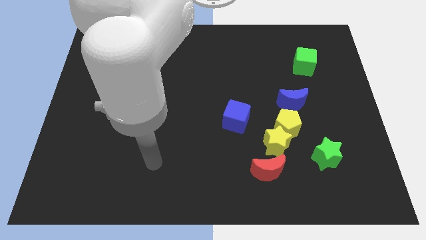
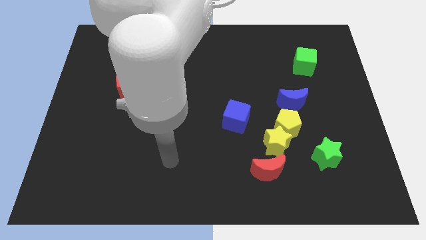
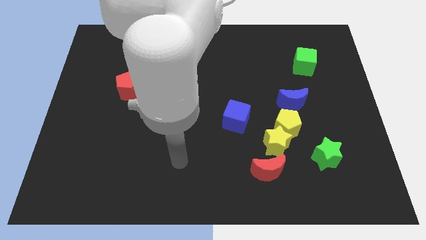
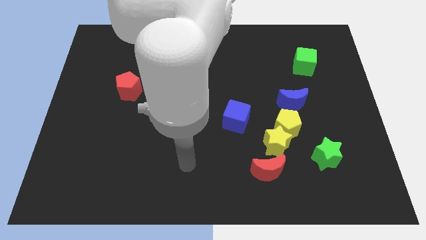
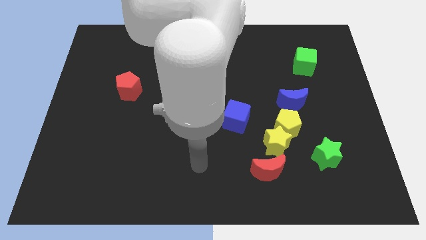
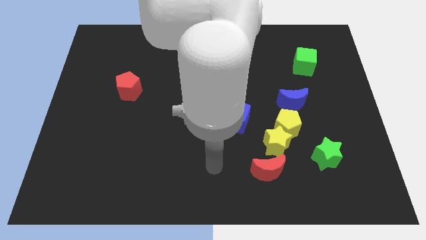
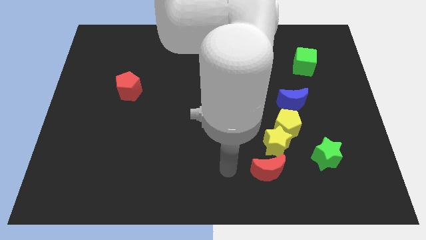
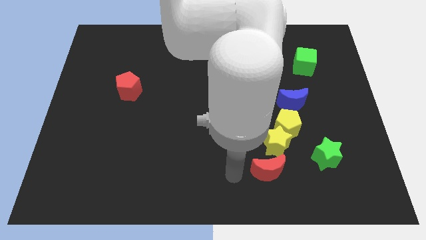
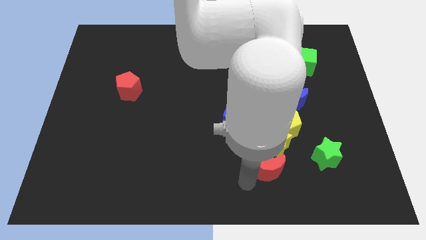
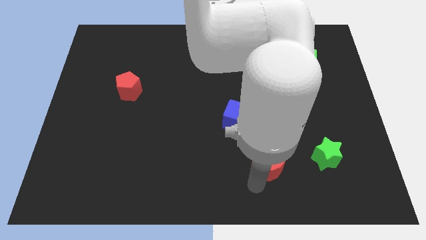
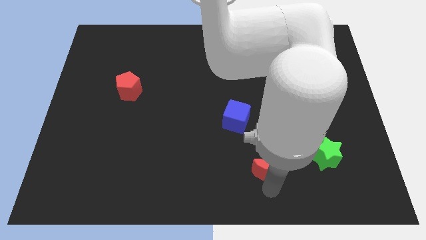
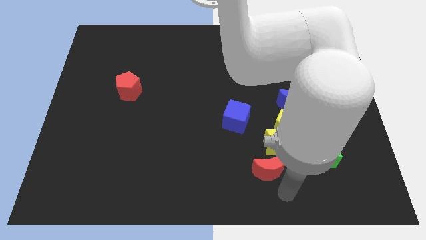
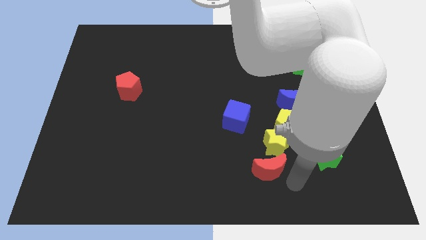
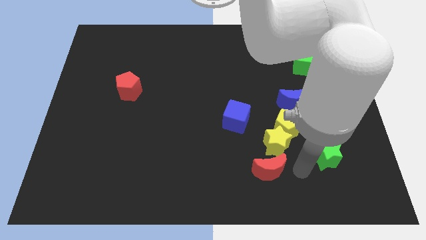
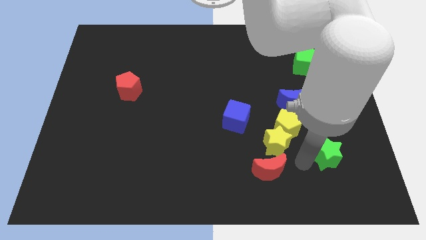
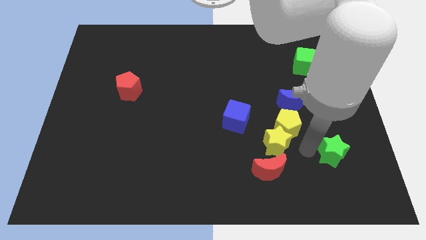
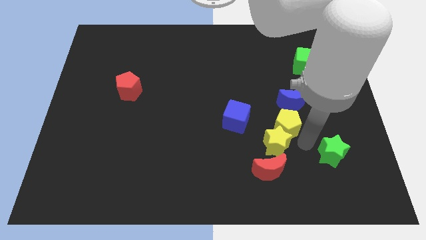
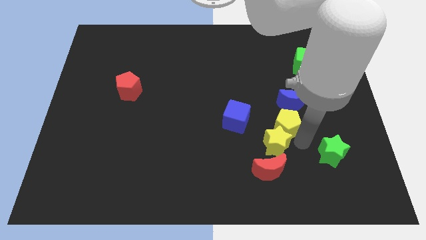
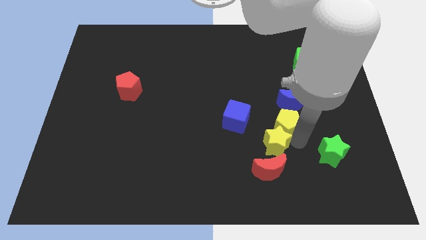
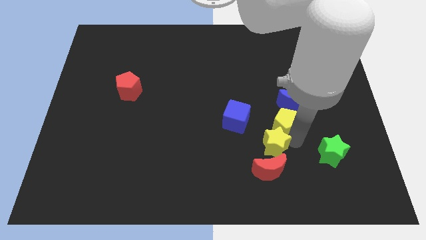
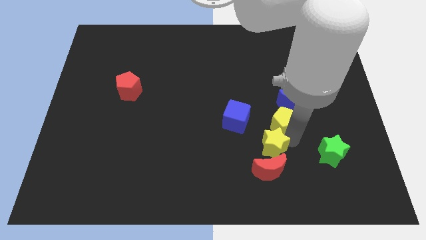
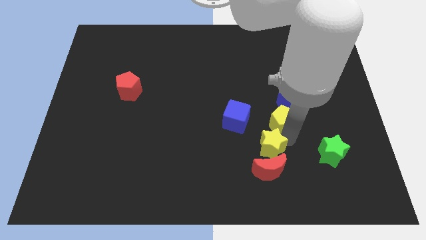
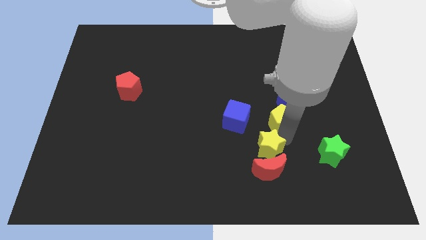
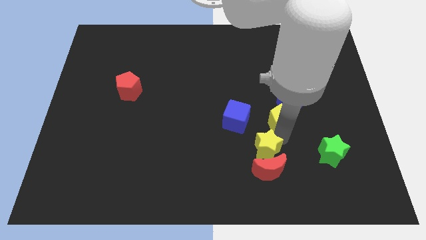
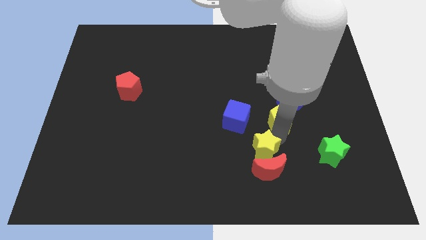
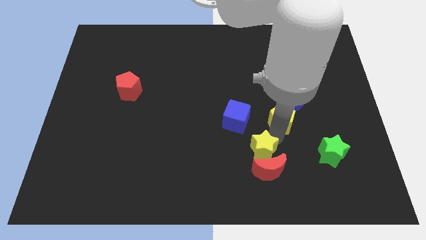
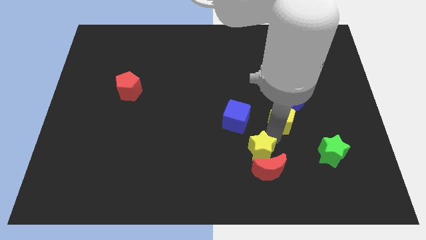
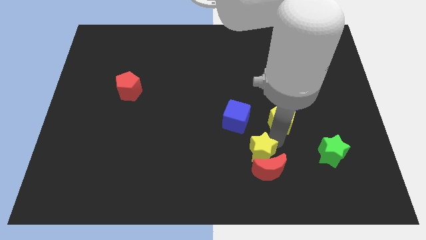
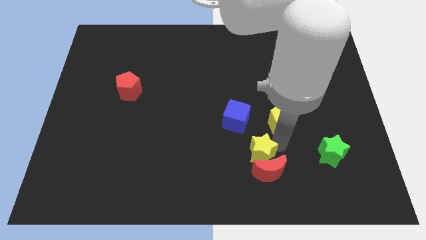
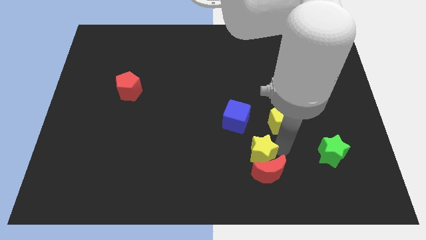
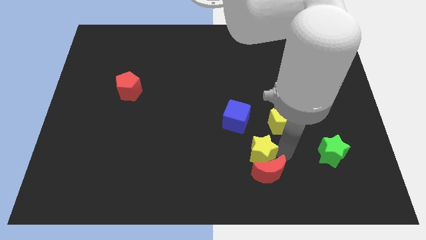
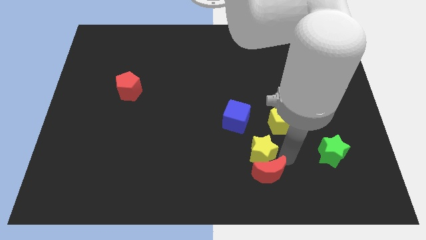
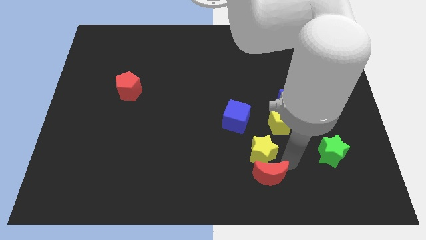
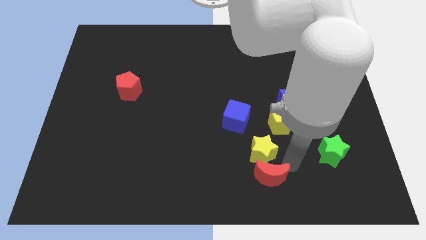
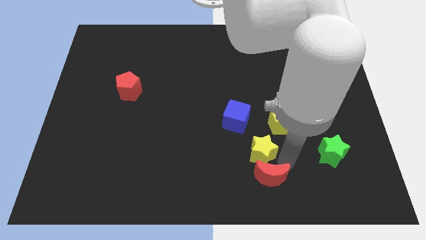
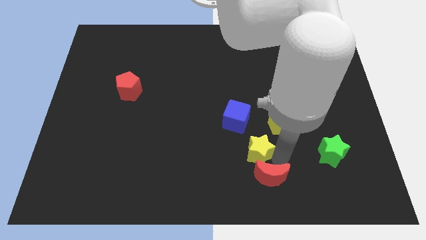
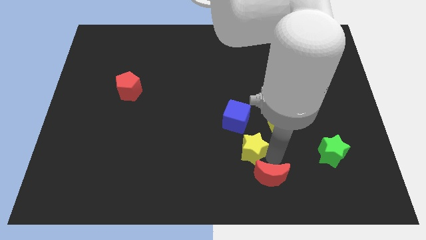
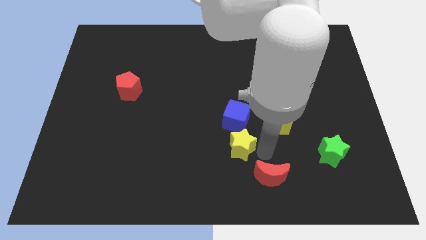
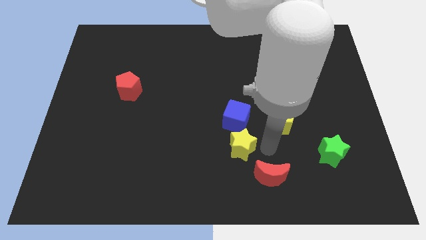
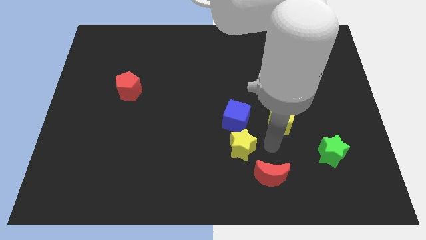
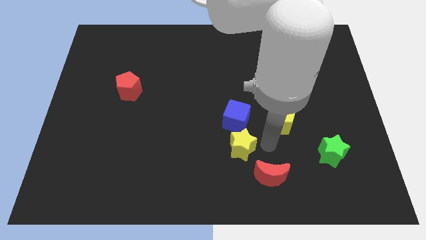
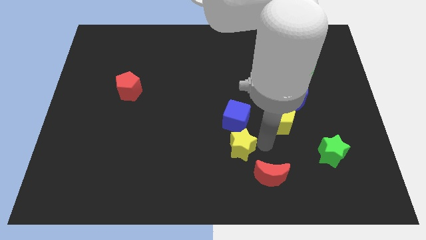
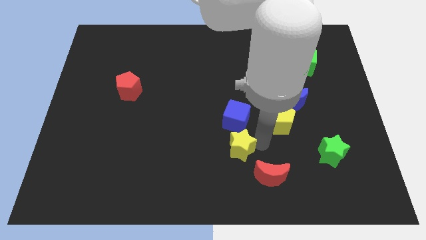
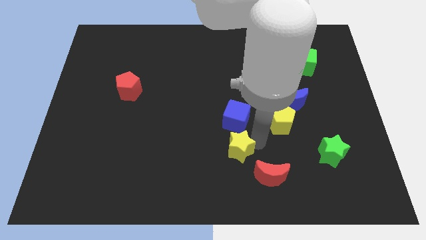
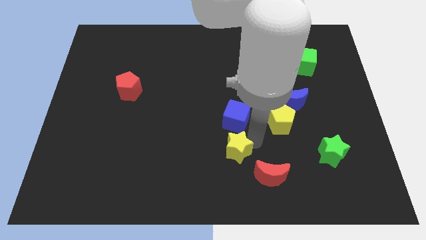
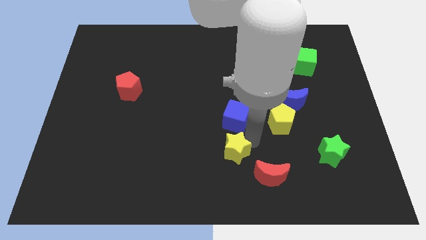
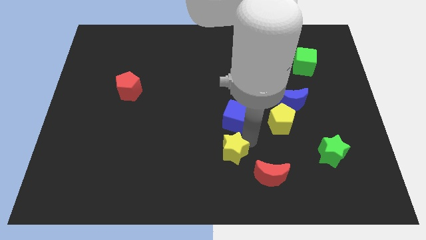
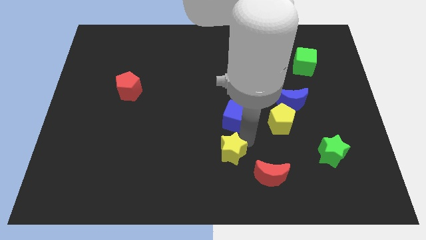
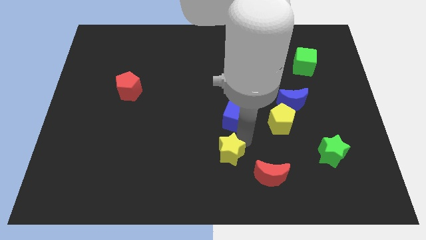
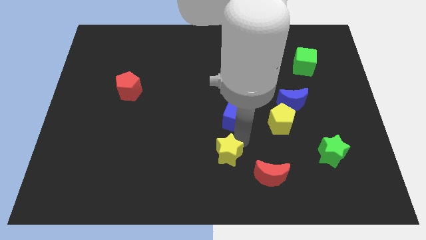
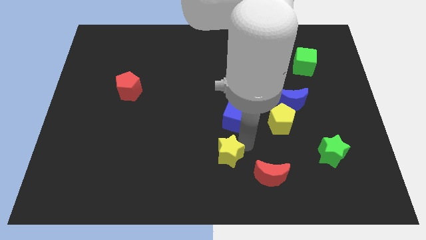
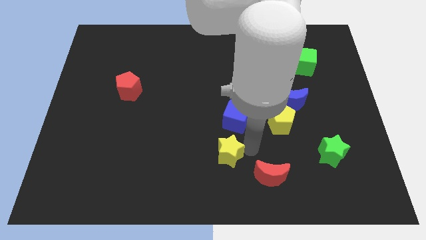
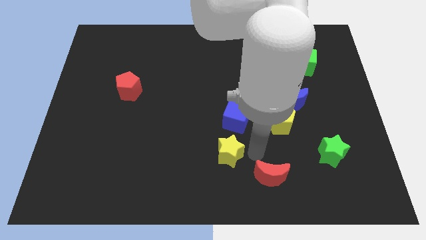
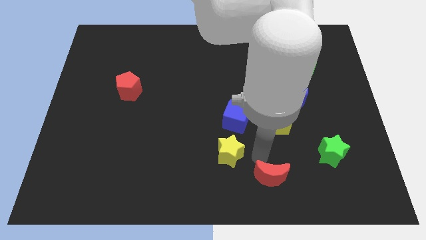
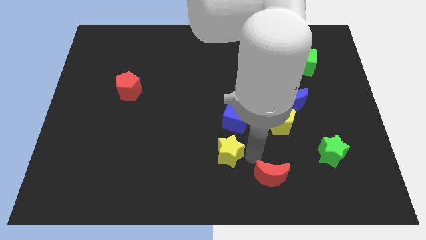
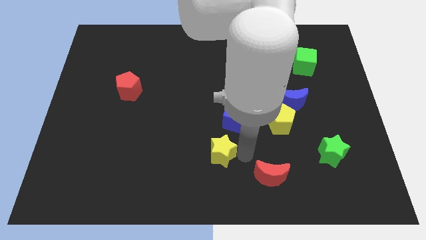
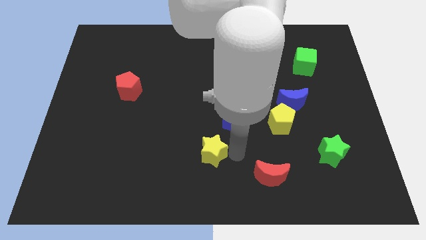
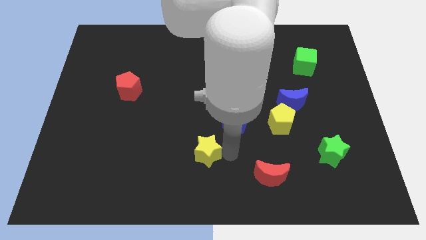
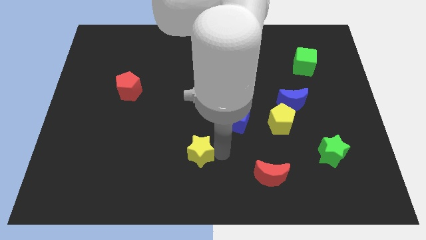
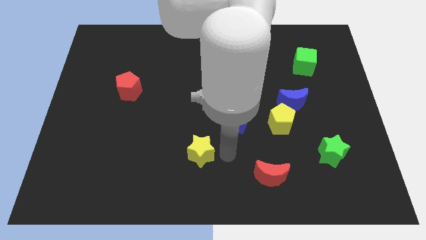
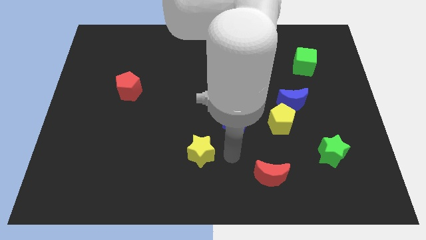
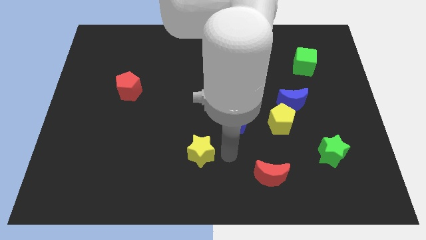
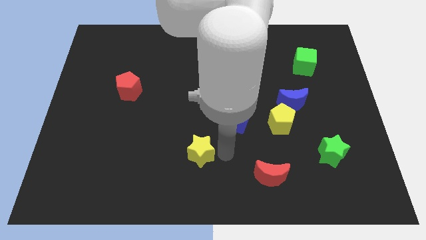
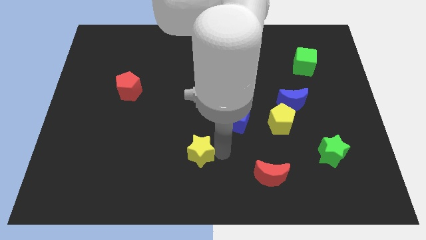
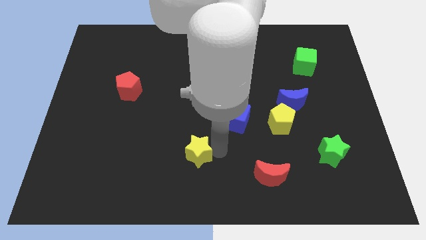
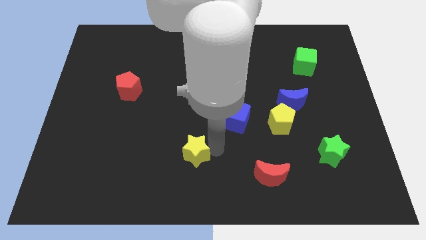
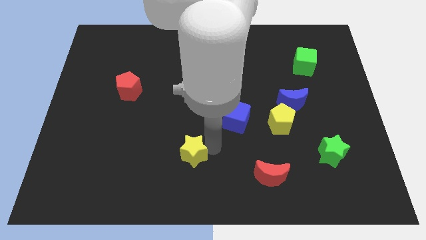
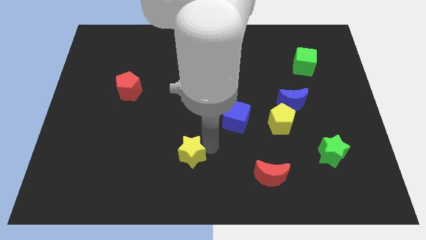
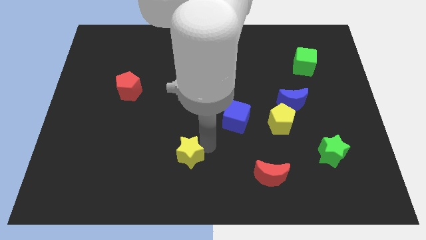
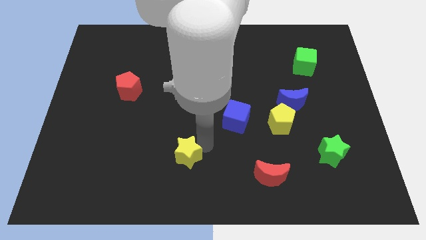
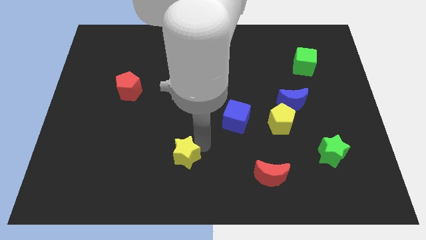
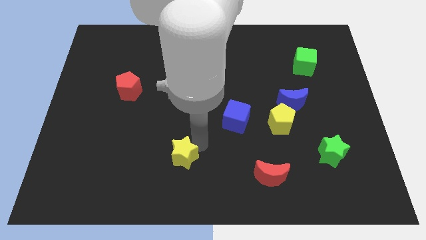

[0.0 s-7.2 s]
slide the yellow star left

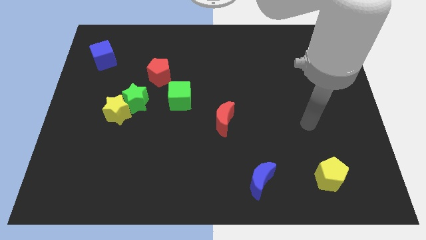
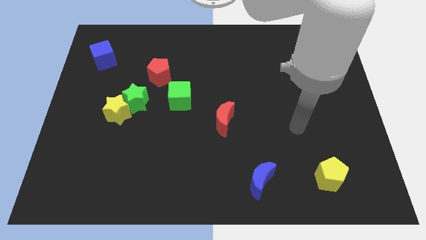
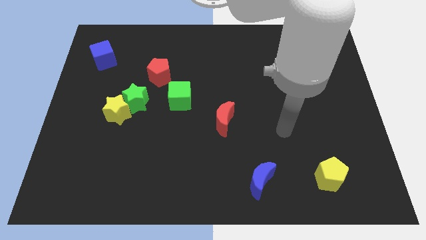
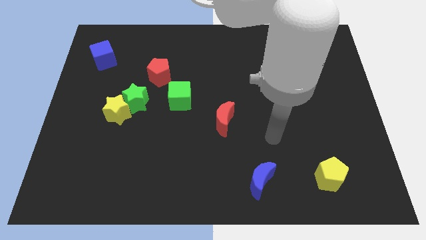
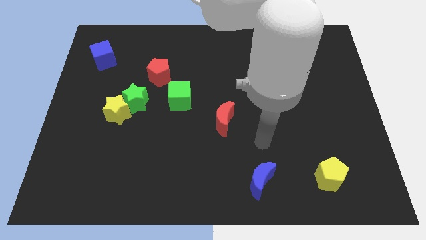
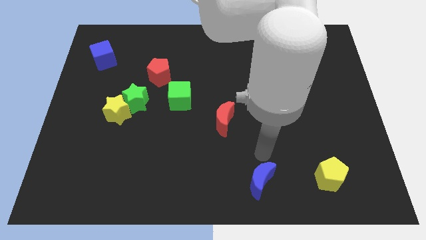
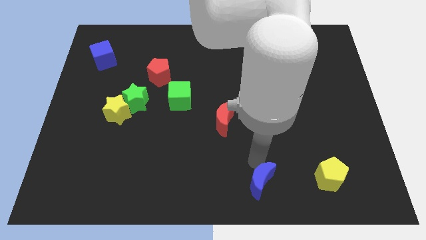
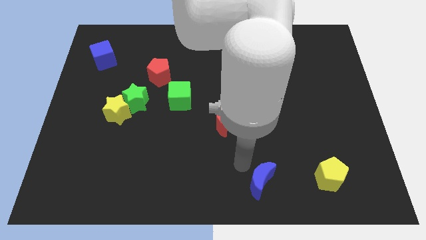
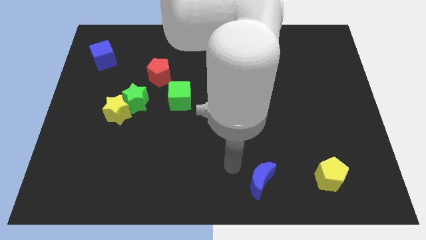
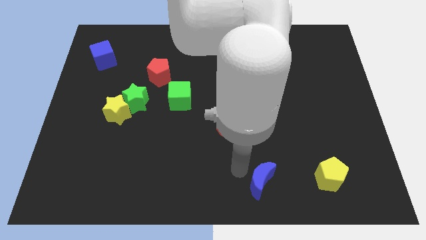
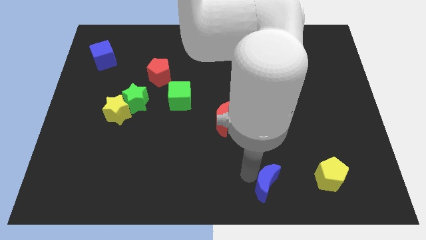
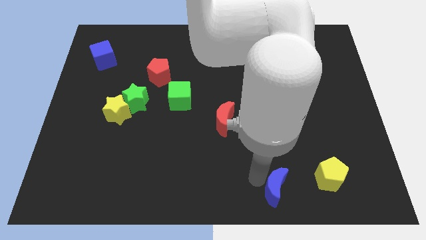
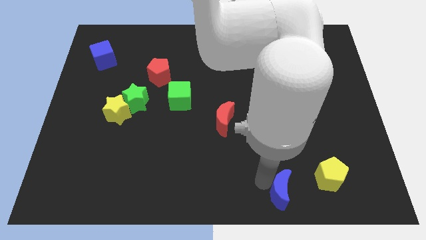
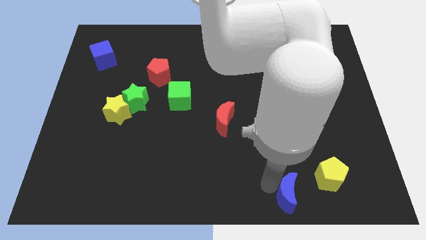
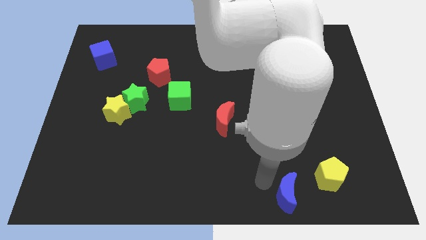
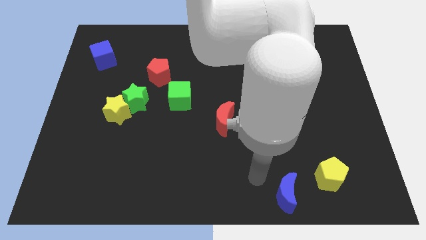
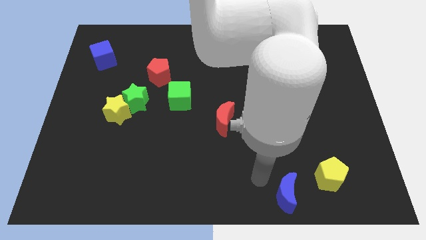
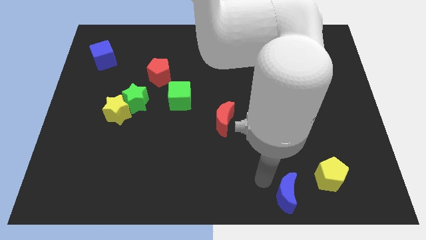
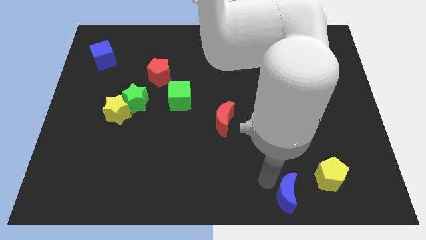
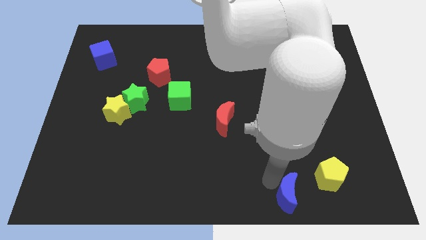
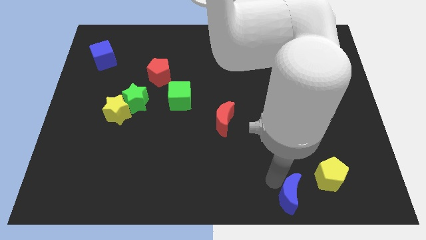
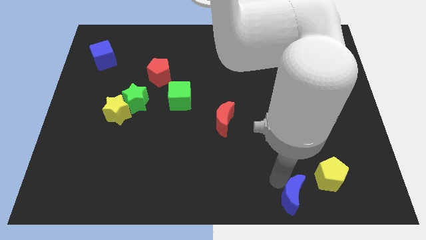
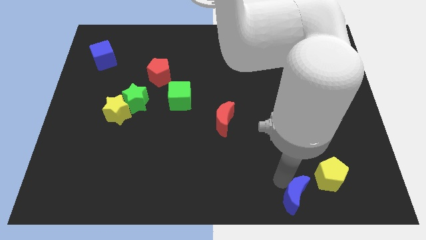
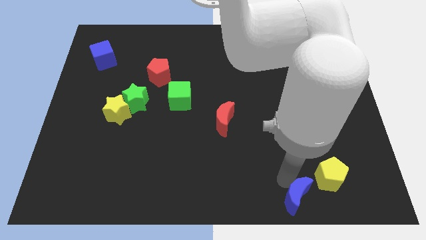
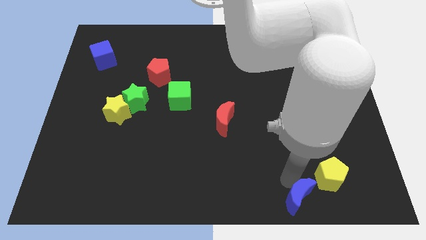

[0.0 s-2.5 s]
move the blue moon a little bit right
